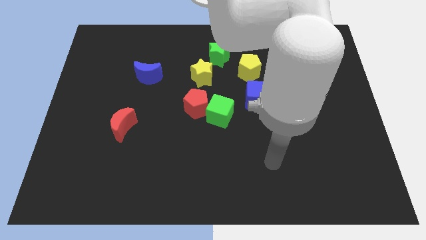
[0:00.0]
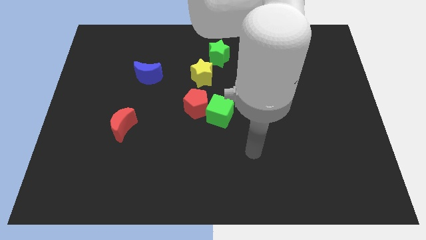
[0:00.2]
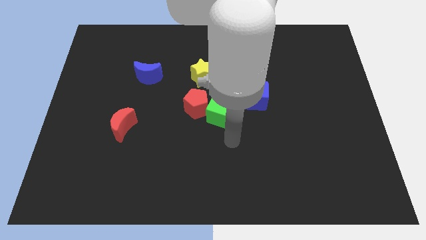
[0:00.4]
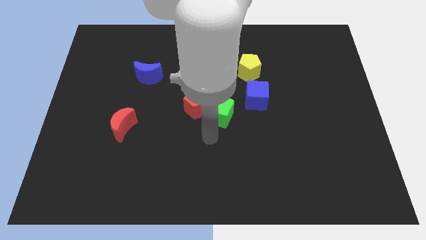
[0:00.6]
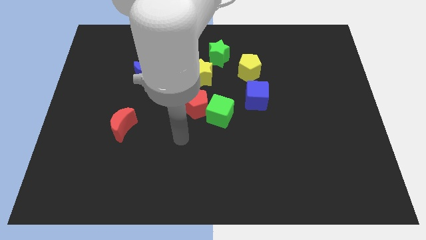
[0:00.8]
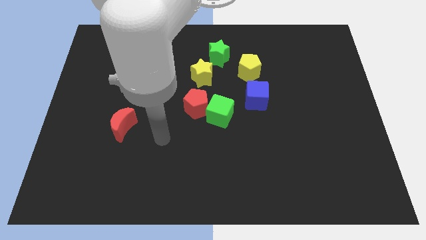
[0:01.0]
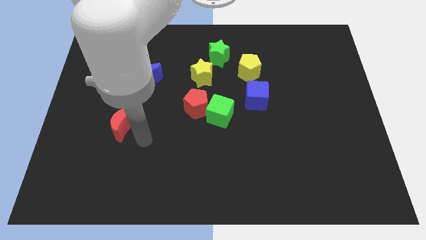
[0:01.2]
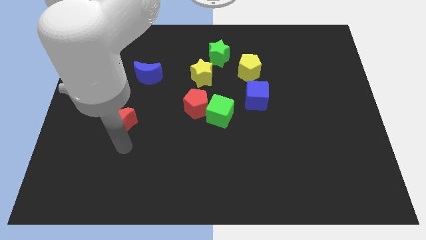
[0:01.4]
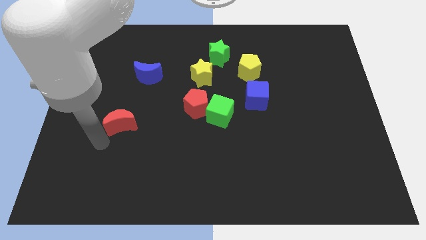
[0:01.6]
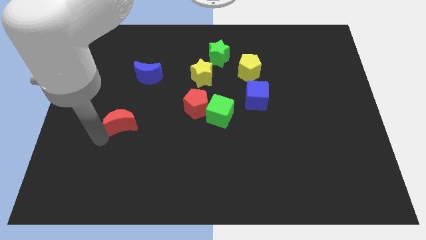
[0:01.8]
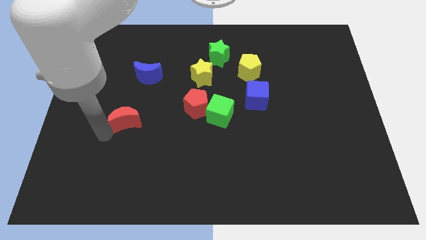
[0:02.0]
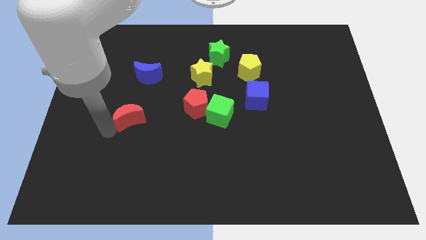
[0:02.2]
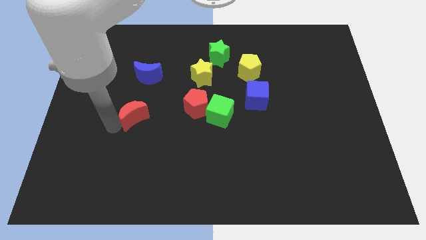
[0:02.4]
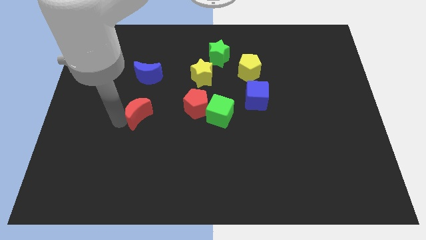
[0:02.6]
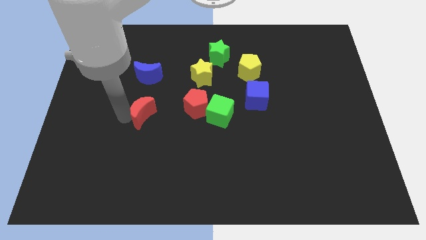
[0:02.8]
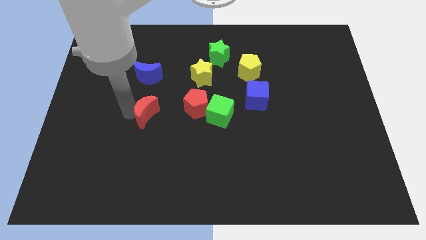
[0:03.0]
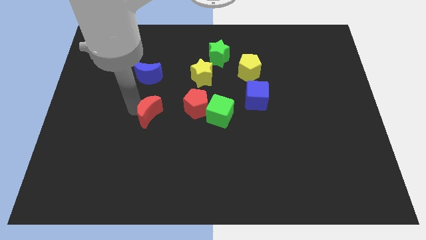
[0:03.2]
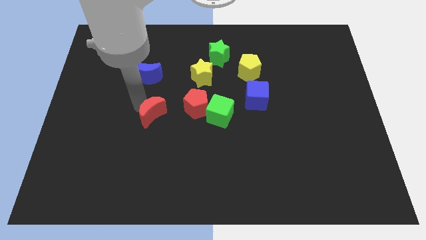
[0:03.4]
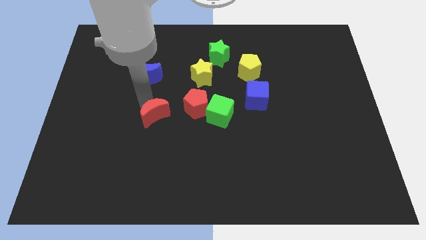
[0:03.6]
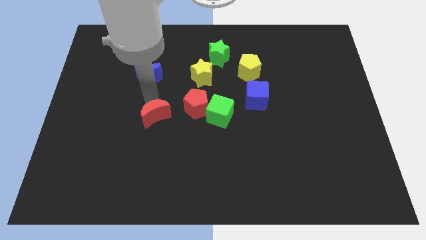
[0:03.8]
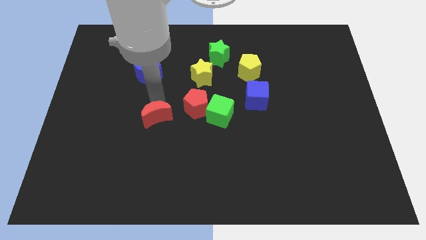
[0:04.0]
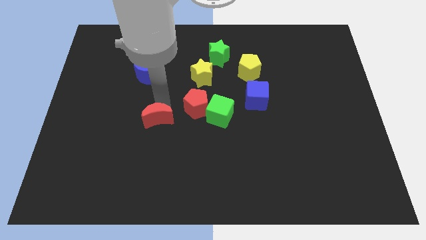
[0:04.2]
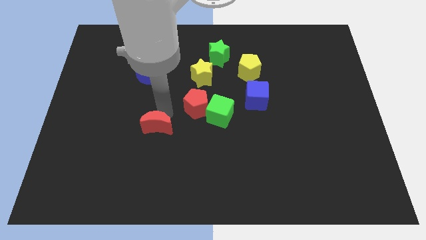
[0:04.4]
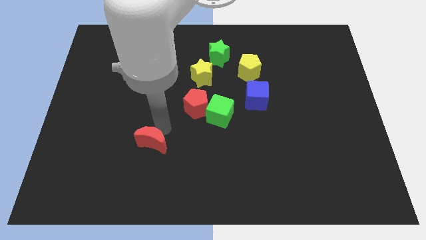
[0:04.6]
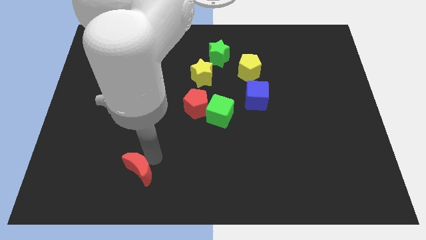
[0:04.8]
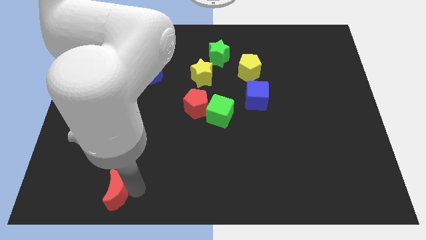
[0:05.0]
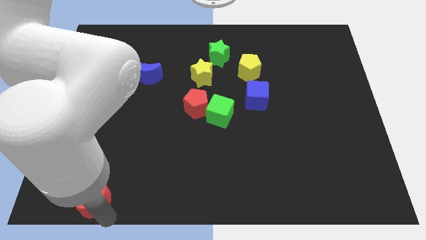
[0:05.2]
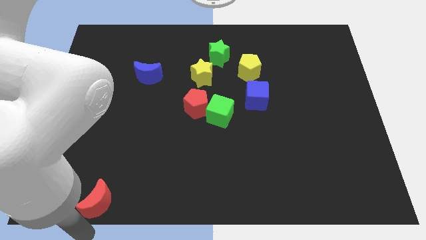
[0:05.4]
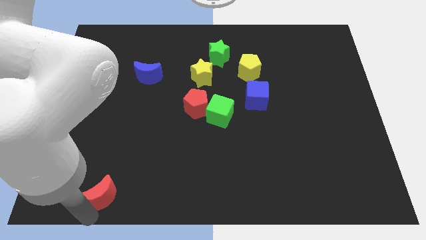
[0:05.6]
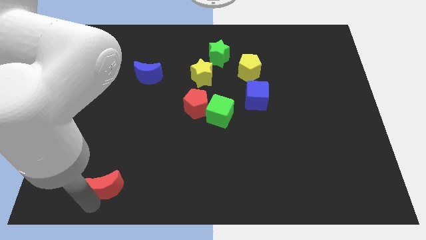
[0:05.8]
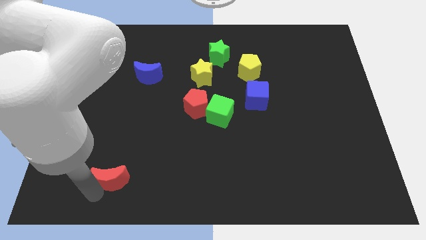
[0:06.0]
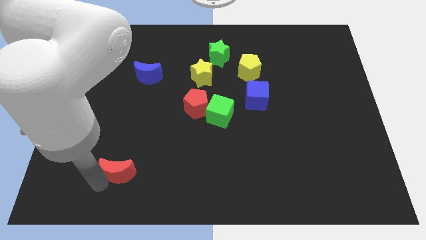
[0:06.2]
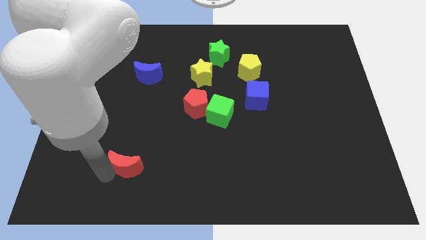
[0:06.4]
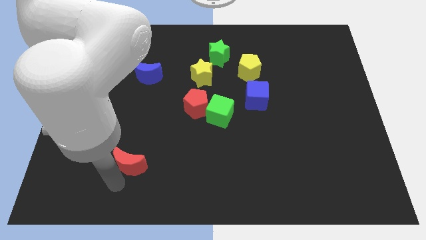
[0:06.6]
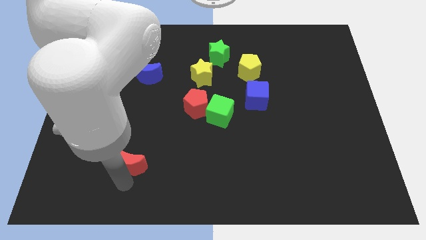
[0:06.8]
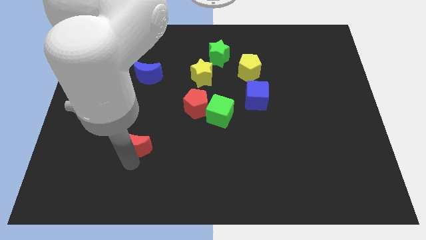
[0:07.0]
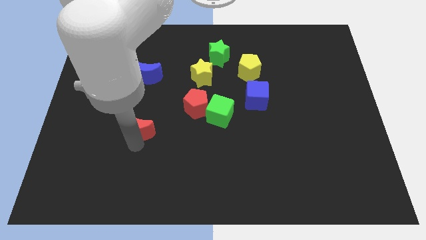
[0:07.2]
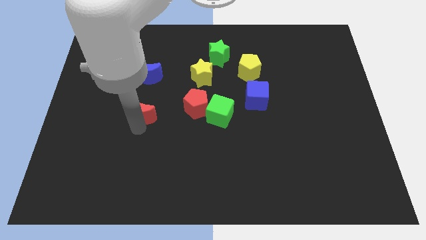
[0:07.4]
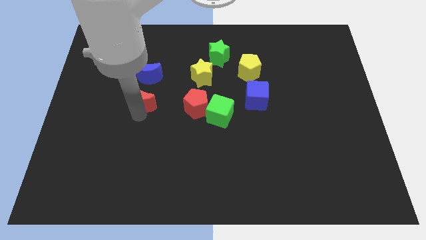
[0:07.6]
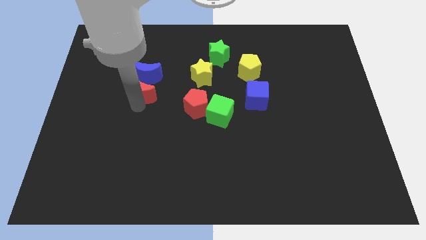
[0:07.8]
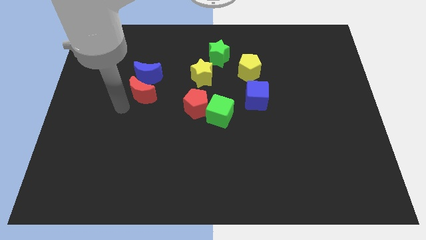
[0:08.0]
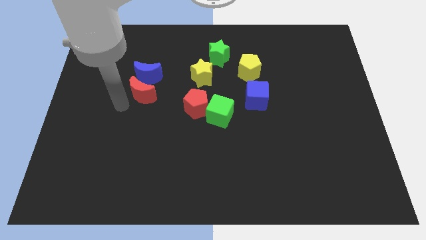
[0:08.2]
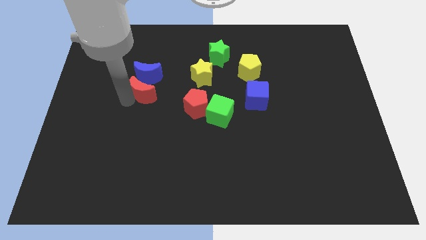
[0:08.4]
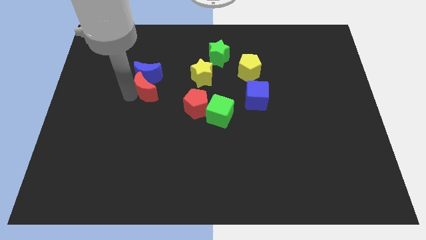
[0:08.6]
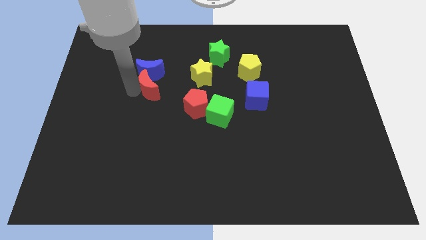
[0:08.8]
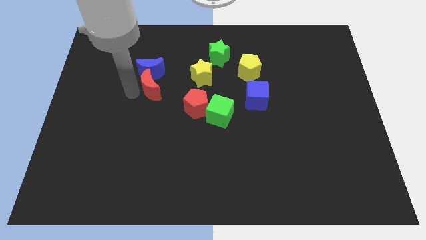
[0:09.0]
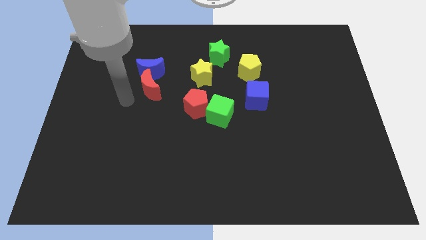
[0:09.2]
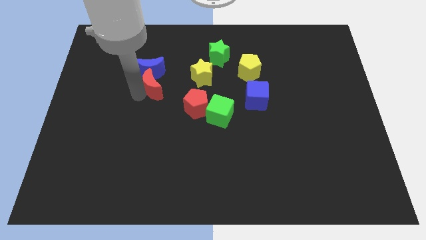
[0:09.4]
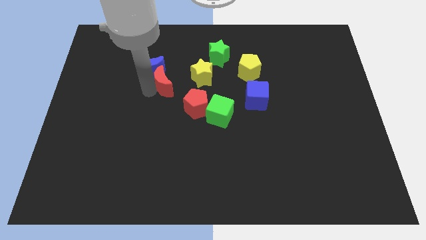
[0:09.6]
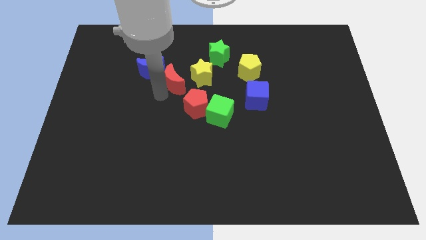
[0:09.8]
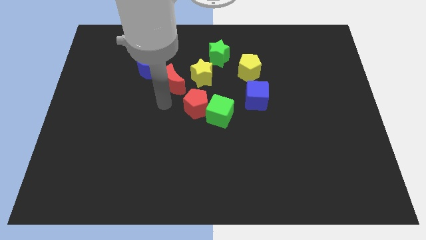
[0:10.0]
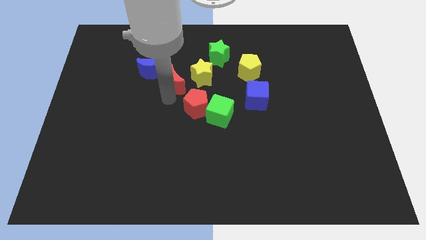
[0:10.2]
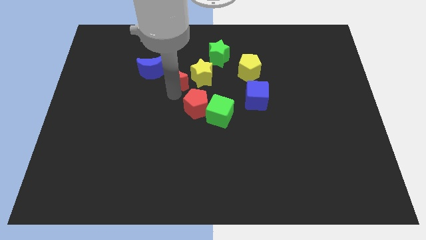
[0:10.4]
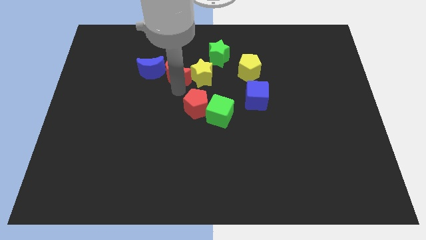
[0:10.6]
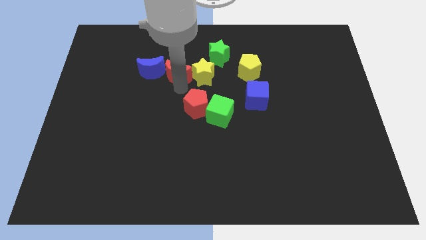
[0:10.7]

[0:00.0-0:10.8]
move the red moon to the top left side of the yellow star
